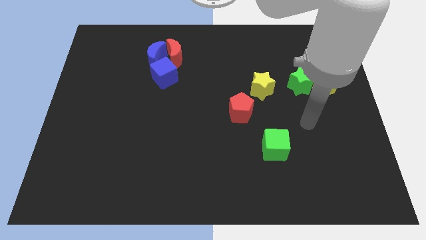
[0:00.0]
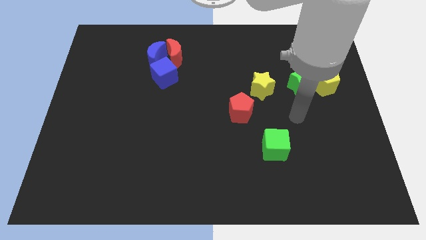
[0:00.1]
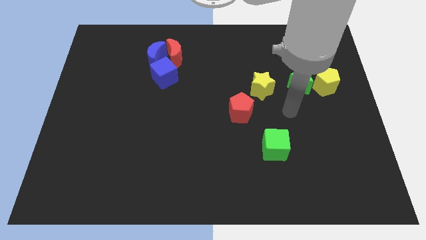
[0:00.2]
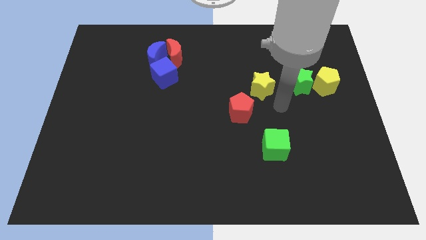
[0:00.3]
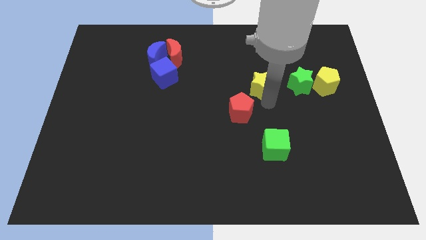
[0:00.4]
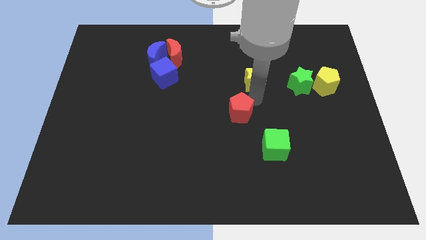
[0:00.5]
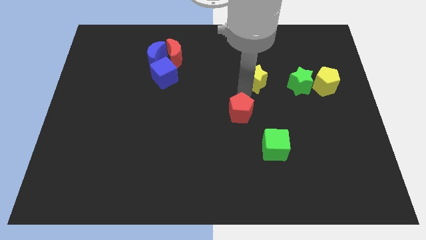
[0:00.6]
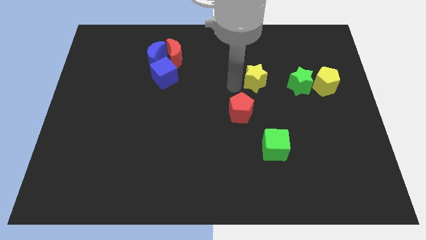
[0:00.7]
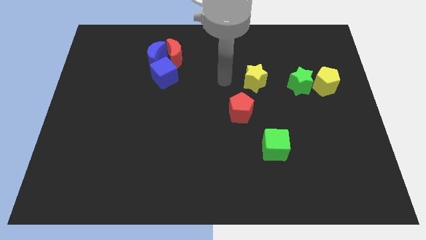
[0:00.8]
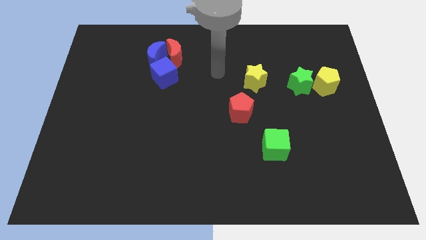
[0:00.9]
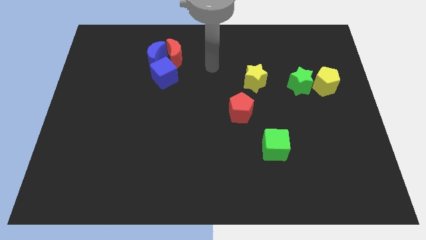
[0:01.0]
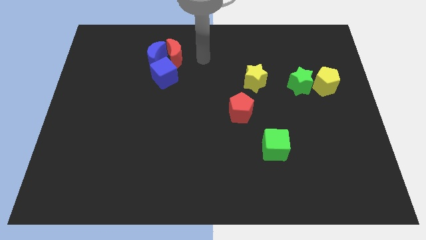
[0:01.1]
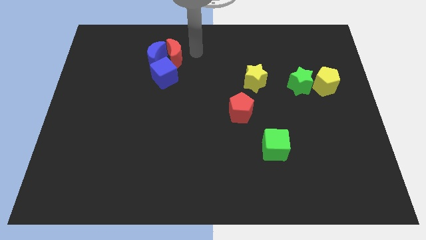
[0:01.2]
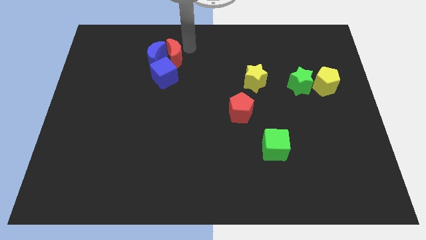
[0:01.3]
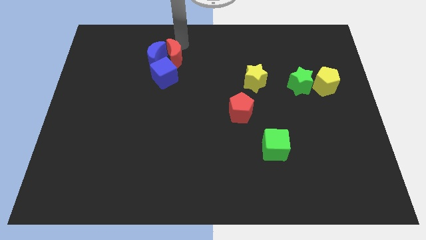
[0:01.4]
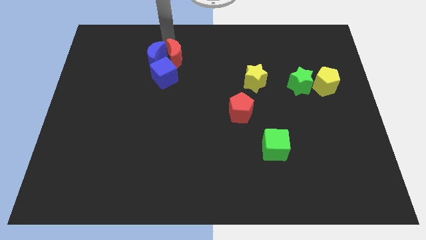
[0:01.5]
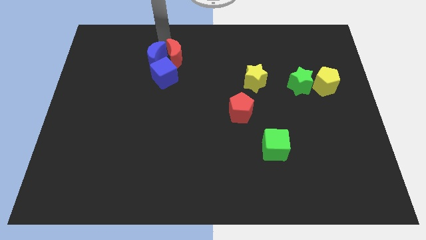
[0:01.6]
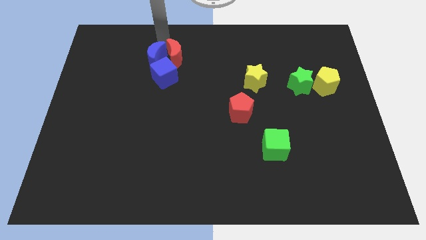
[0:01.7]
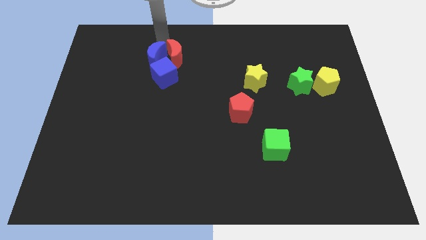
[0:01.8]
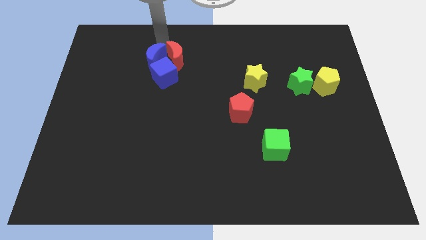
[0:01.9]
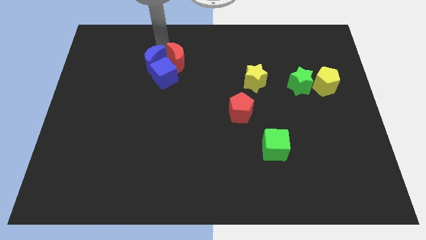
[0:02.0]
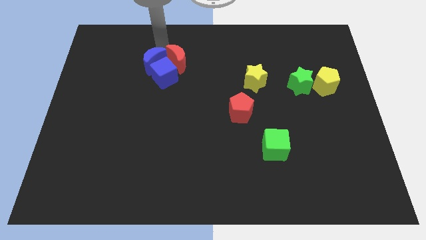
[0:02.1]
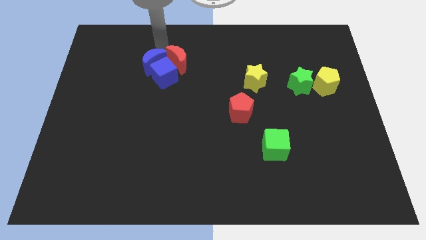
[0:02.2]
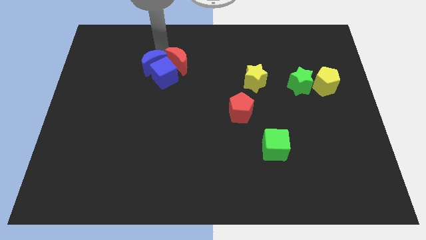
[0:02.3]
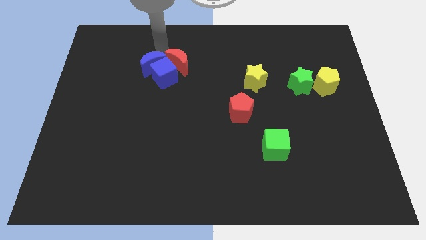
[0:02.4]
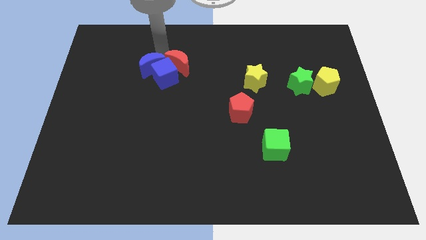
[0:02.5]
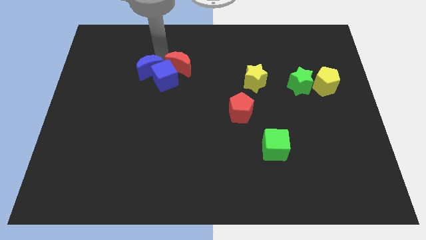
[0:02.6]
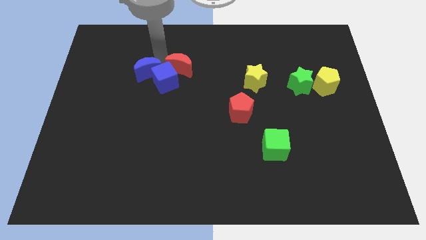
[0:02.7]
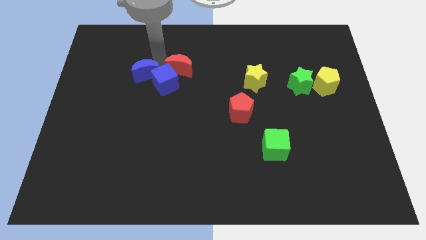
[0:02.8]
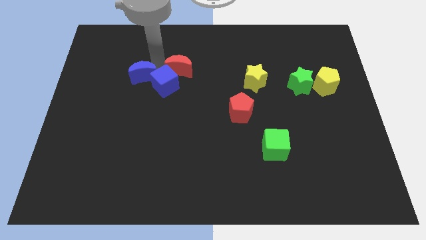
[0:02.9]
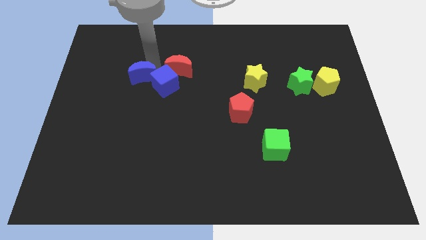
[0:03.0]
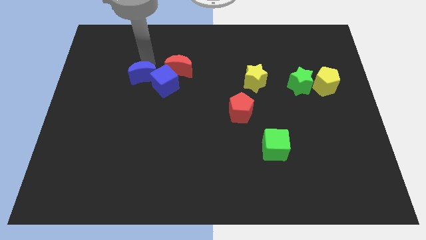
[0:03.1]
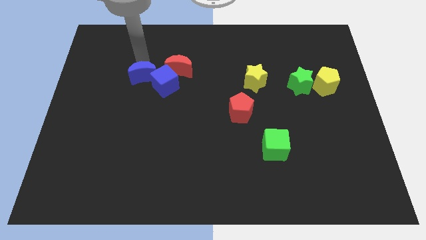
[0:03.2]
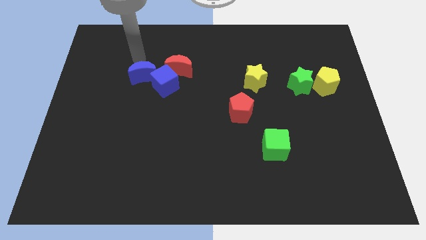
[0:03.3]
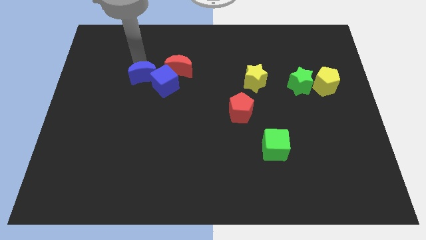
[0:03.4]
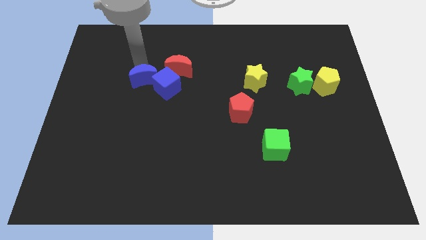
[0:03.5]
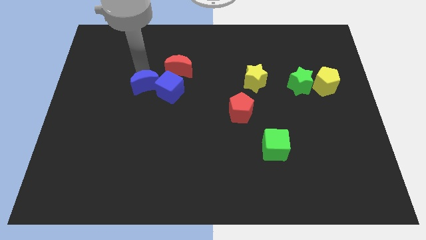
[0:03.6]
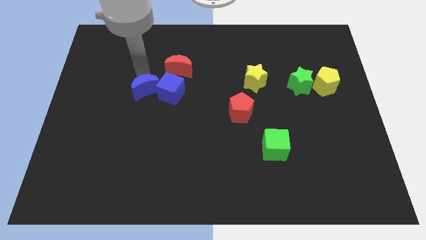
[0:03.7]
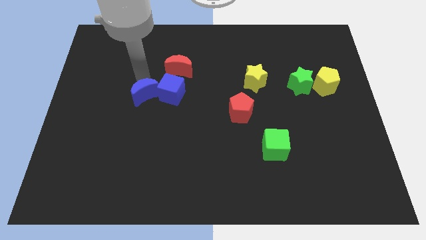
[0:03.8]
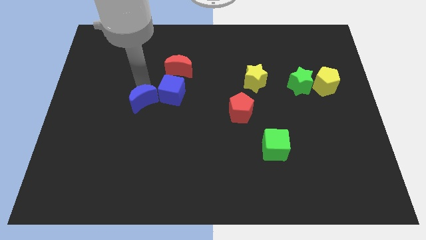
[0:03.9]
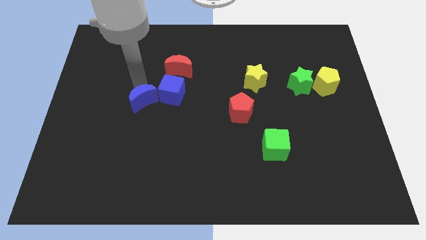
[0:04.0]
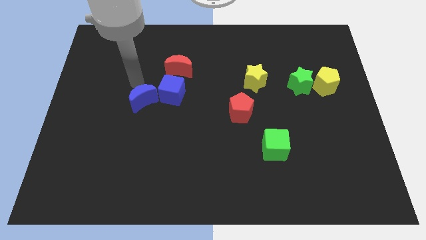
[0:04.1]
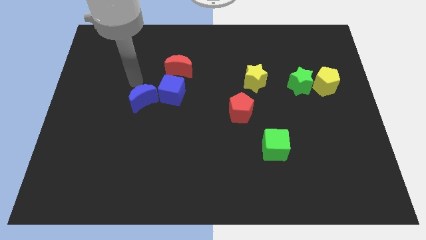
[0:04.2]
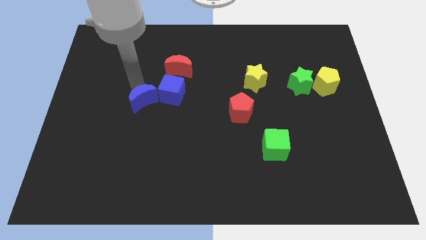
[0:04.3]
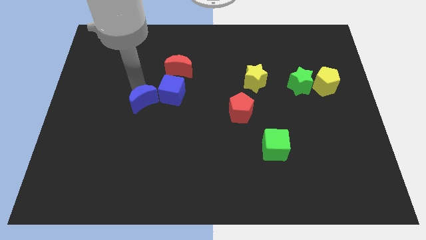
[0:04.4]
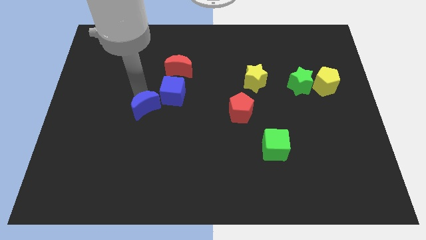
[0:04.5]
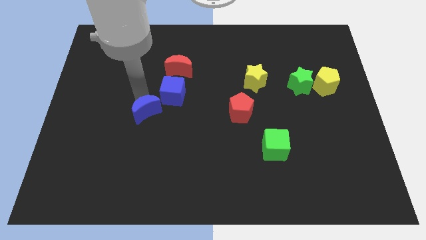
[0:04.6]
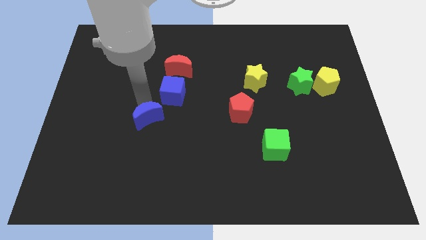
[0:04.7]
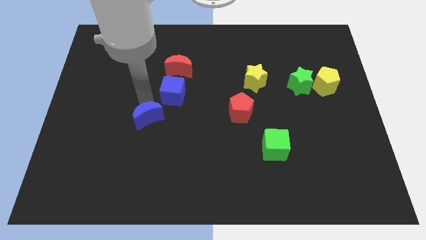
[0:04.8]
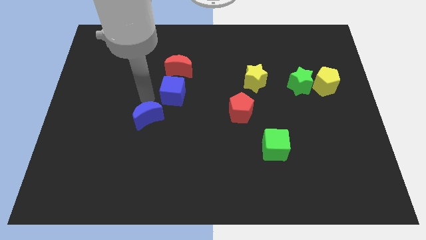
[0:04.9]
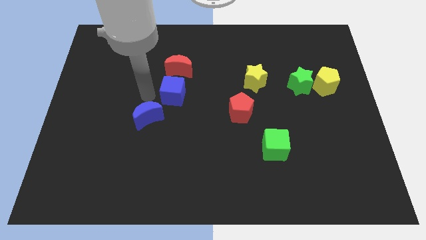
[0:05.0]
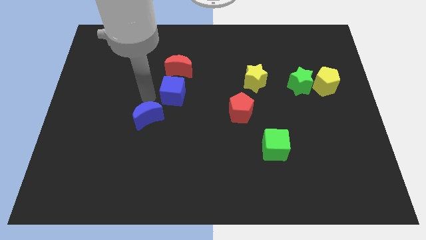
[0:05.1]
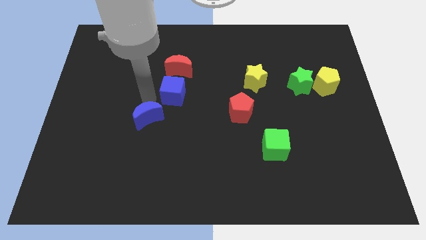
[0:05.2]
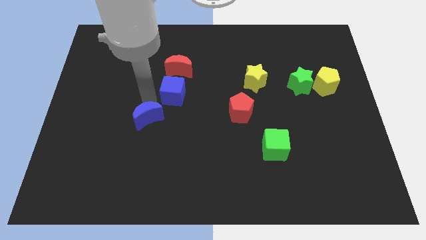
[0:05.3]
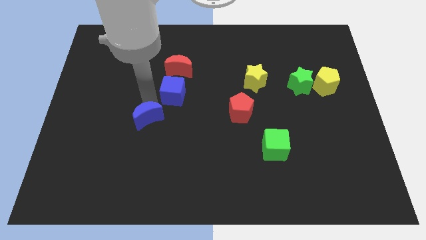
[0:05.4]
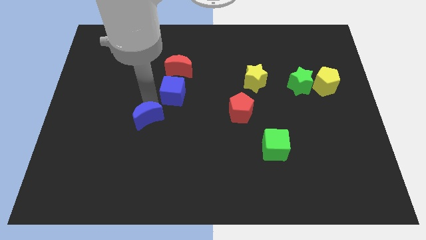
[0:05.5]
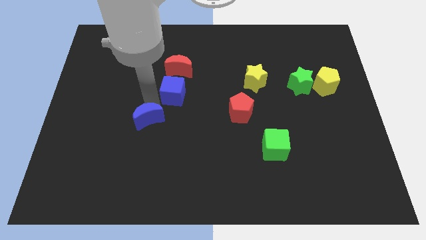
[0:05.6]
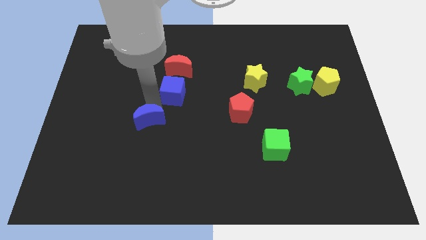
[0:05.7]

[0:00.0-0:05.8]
push the blue moon downwards

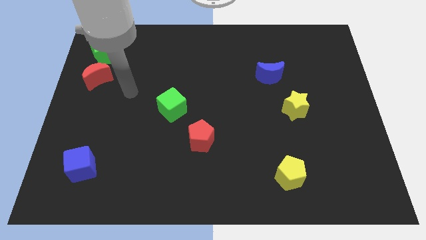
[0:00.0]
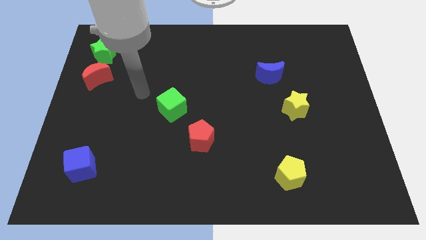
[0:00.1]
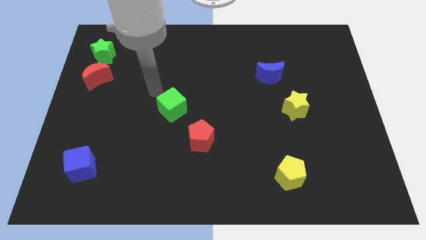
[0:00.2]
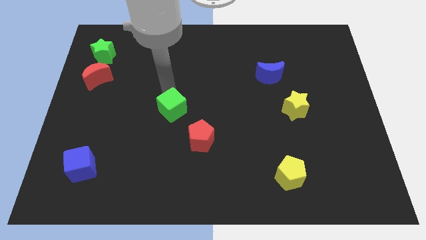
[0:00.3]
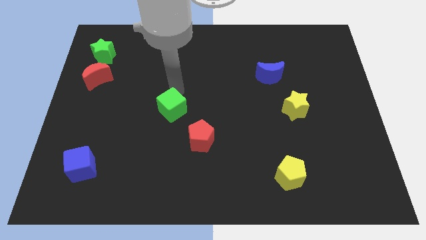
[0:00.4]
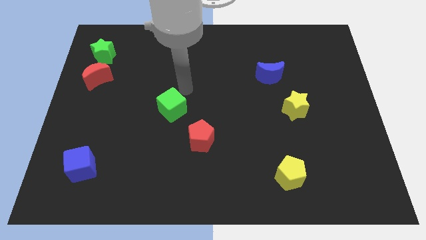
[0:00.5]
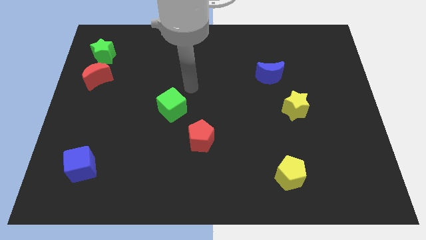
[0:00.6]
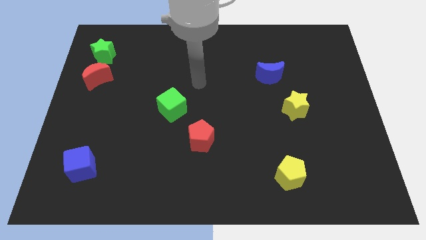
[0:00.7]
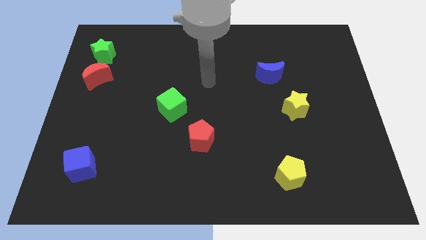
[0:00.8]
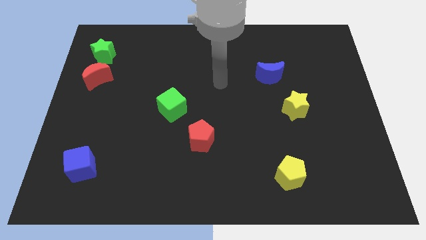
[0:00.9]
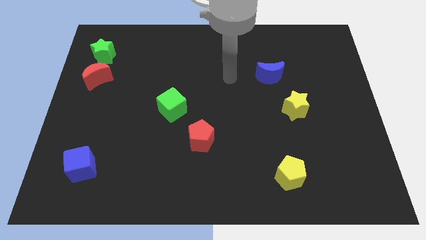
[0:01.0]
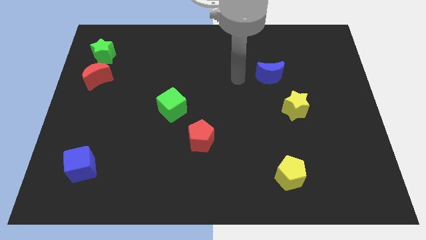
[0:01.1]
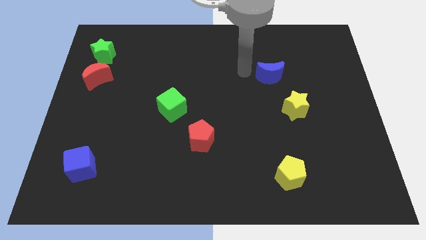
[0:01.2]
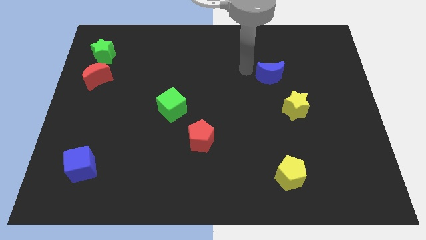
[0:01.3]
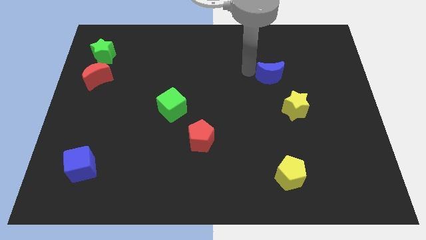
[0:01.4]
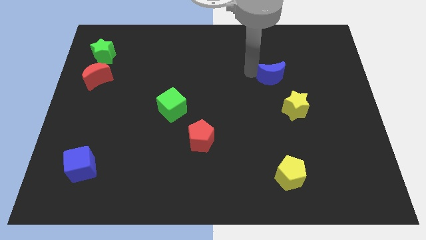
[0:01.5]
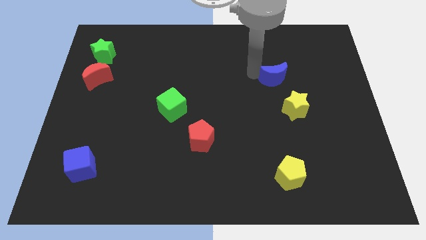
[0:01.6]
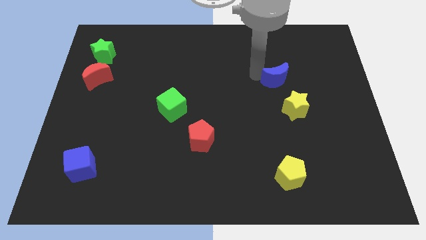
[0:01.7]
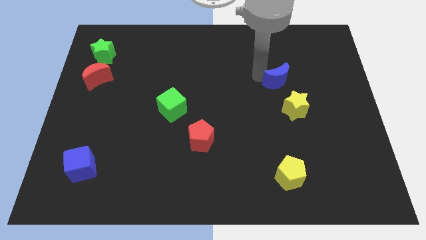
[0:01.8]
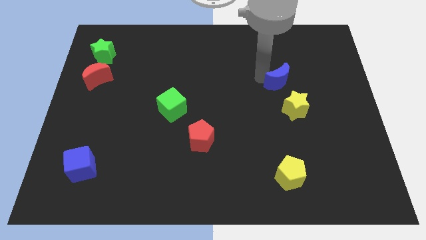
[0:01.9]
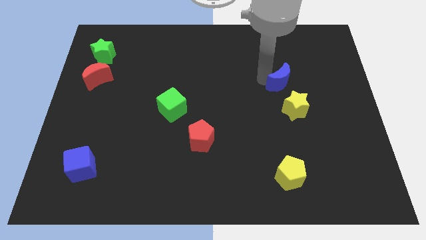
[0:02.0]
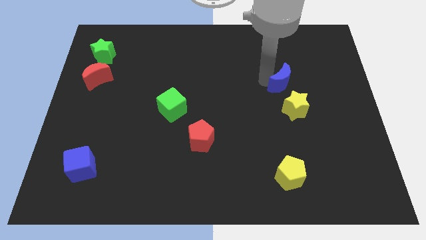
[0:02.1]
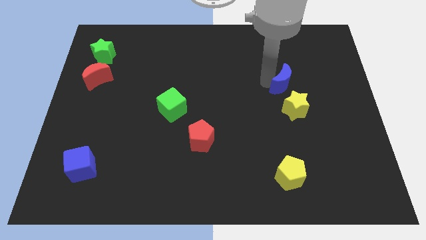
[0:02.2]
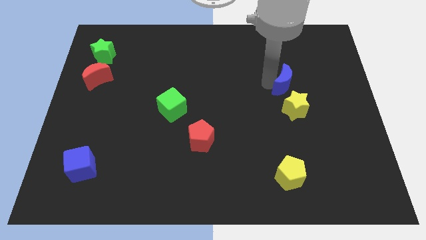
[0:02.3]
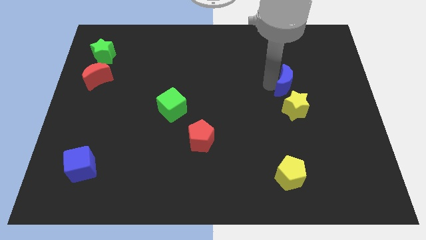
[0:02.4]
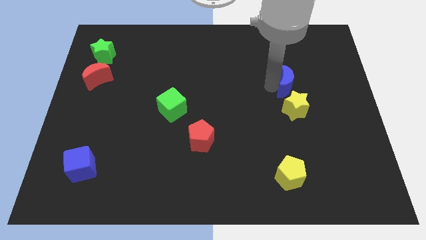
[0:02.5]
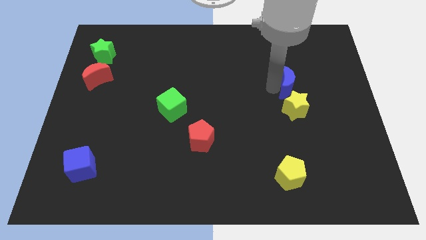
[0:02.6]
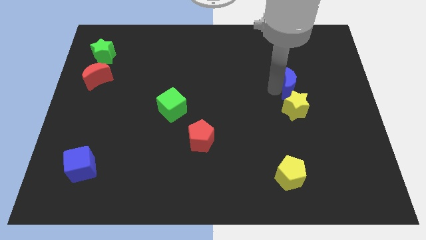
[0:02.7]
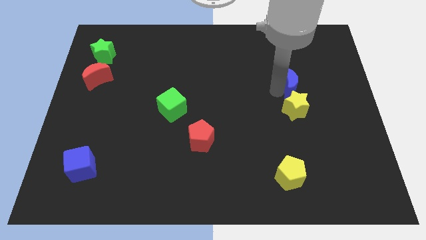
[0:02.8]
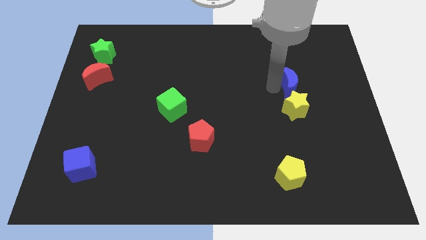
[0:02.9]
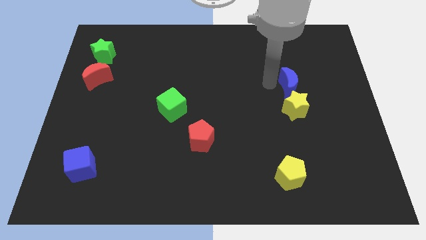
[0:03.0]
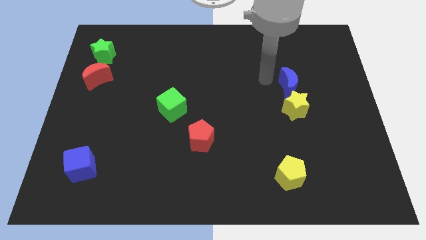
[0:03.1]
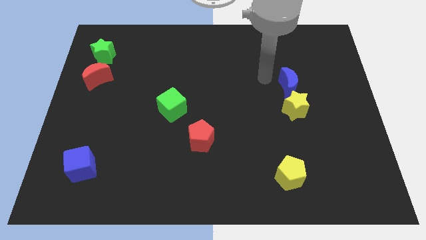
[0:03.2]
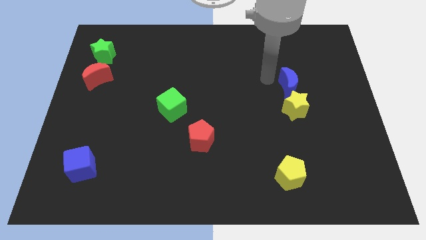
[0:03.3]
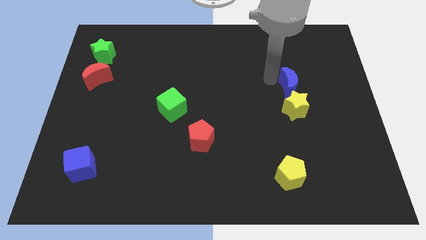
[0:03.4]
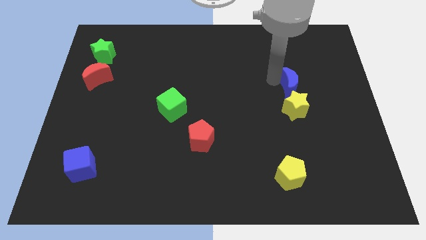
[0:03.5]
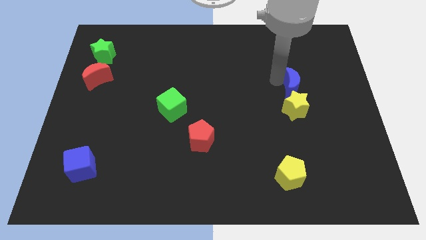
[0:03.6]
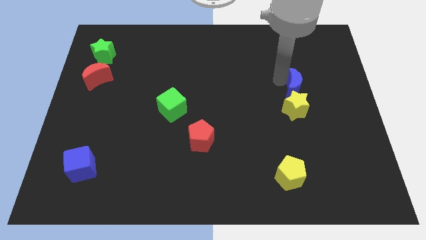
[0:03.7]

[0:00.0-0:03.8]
slightly move the blue moon down and right
